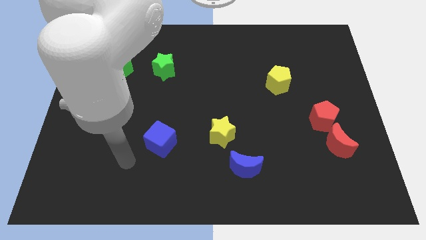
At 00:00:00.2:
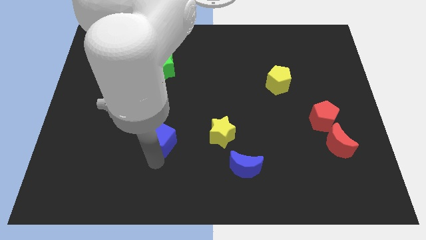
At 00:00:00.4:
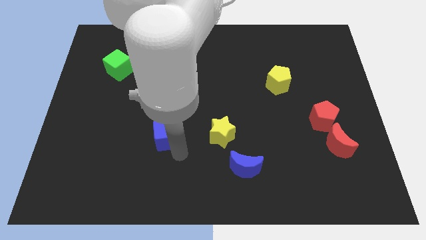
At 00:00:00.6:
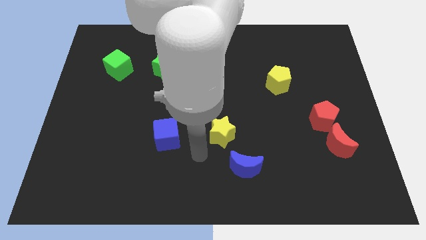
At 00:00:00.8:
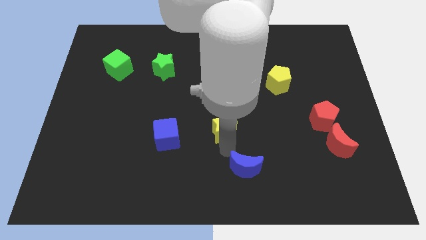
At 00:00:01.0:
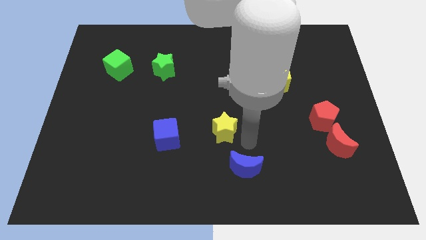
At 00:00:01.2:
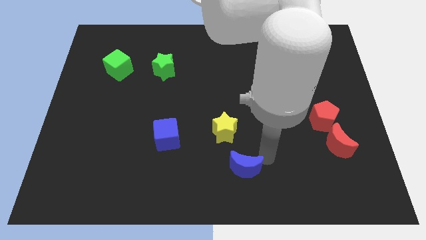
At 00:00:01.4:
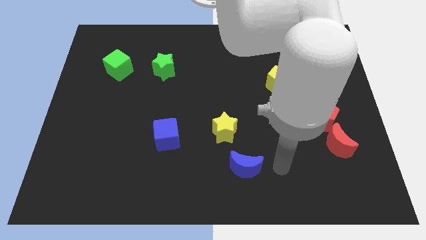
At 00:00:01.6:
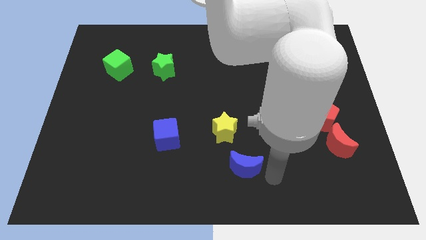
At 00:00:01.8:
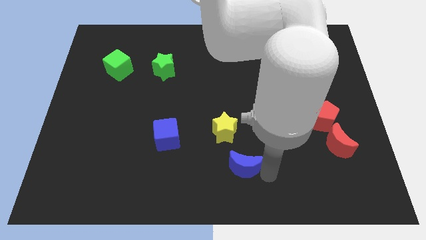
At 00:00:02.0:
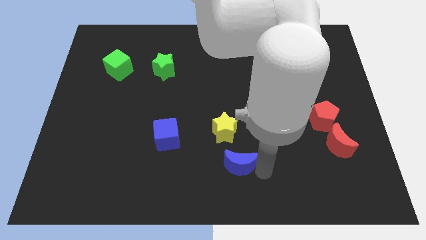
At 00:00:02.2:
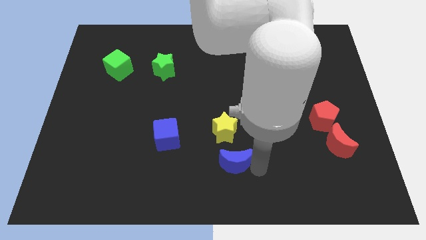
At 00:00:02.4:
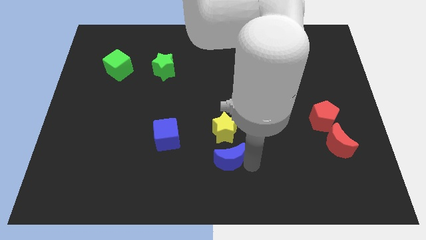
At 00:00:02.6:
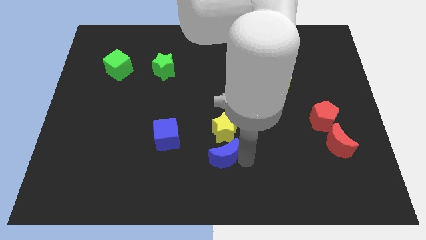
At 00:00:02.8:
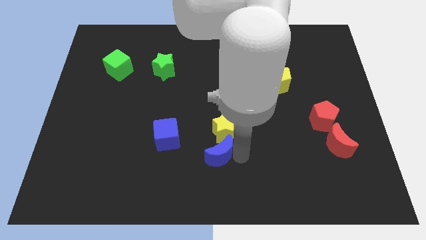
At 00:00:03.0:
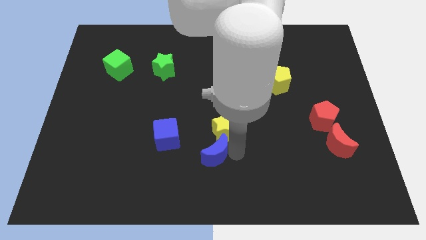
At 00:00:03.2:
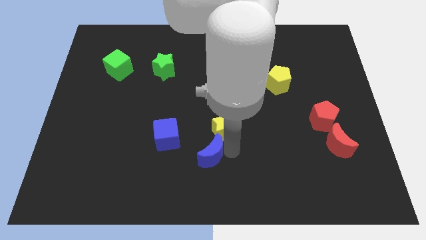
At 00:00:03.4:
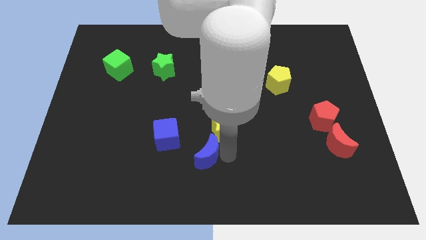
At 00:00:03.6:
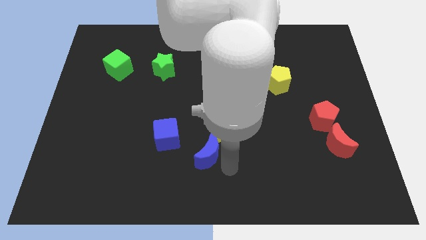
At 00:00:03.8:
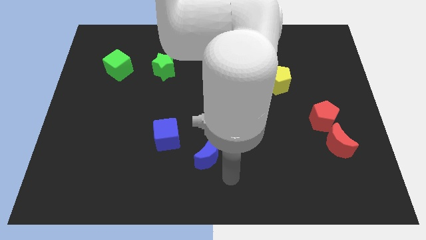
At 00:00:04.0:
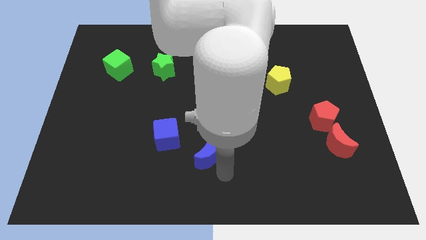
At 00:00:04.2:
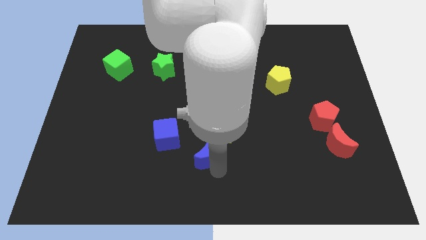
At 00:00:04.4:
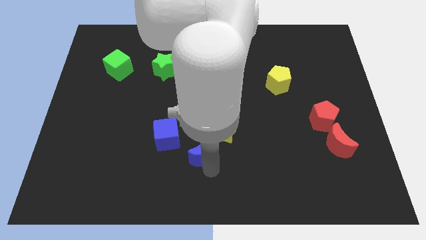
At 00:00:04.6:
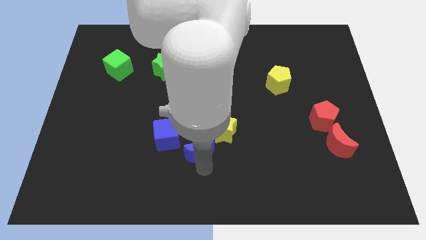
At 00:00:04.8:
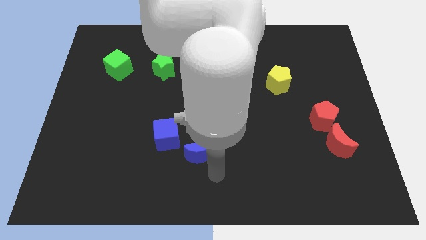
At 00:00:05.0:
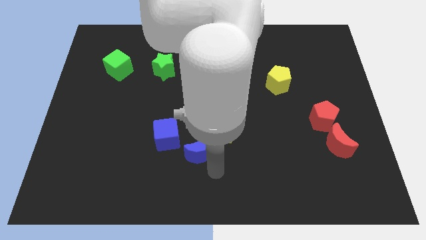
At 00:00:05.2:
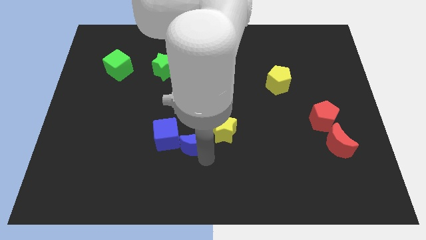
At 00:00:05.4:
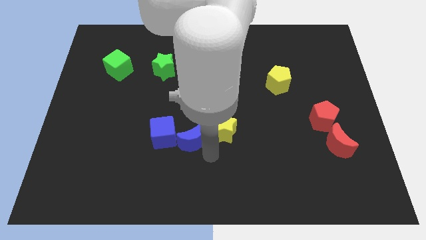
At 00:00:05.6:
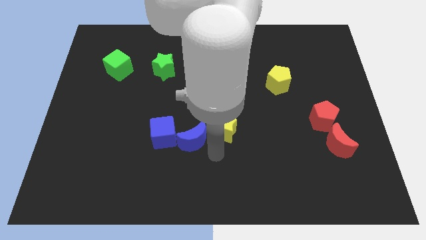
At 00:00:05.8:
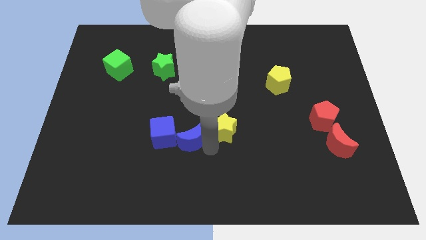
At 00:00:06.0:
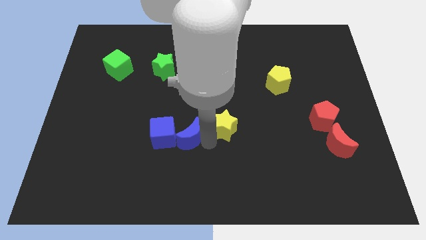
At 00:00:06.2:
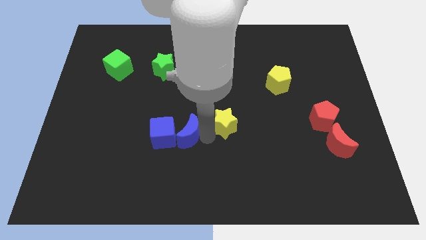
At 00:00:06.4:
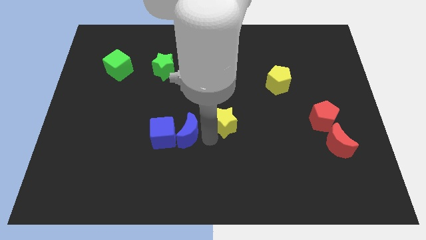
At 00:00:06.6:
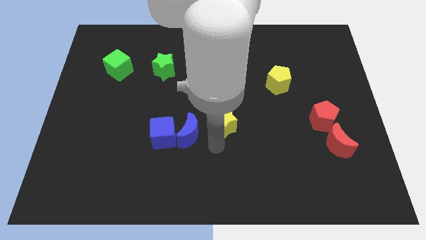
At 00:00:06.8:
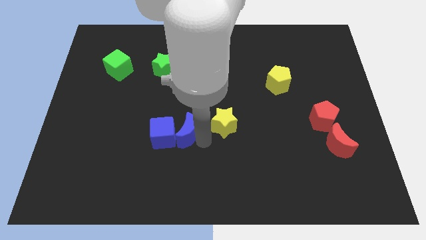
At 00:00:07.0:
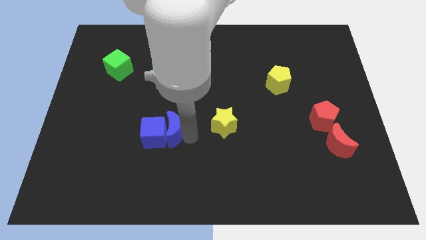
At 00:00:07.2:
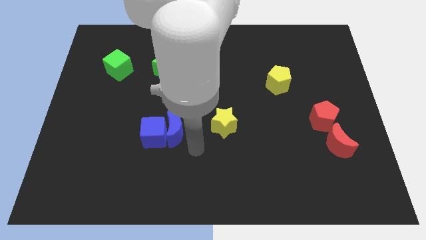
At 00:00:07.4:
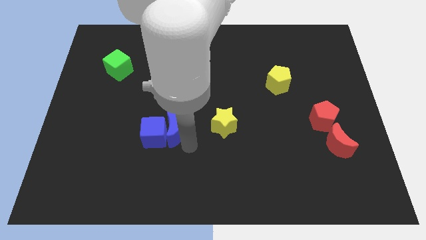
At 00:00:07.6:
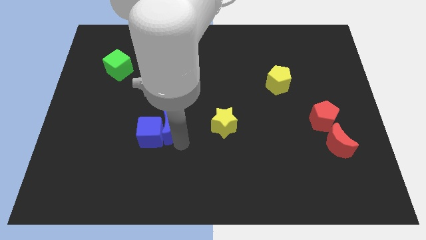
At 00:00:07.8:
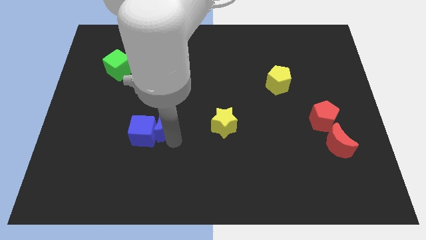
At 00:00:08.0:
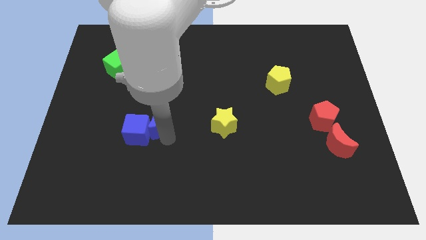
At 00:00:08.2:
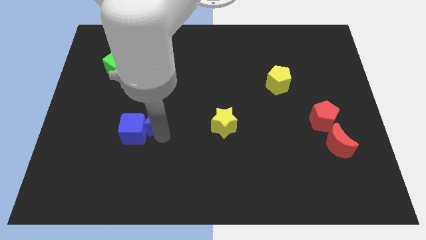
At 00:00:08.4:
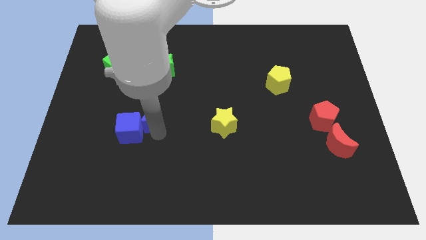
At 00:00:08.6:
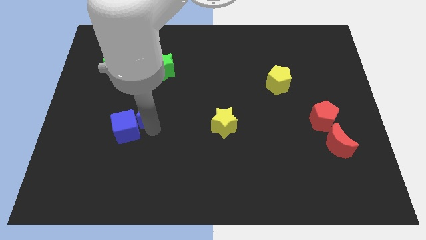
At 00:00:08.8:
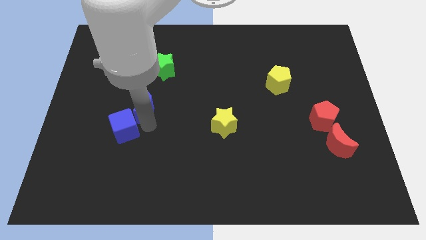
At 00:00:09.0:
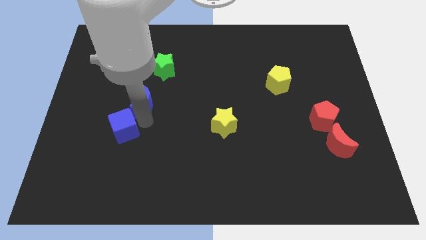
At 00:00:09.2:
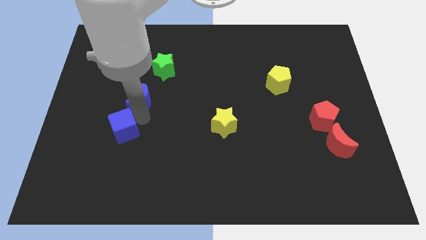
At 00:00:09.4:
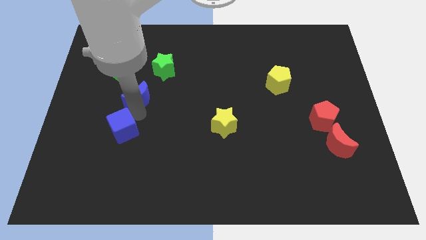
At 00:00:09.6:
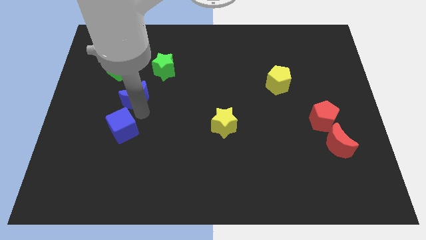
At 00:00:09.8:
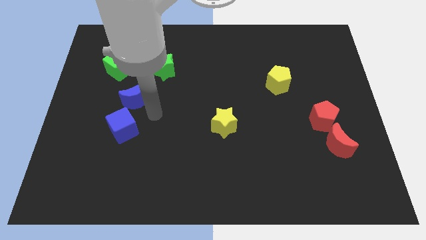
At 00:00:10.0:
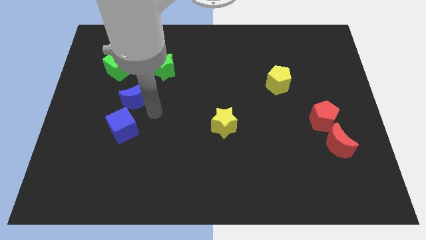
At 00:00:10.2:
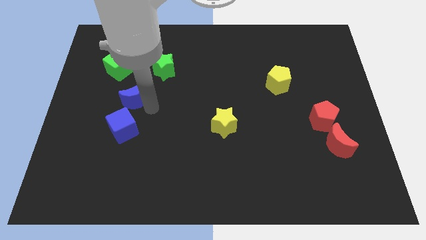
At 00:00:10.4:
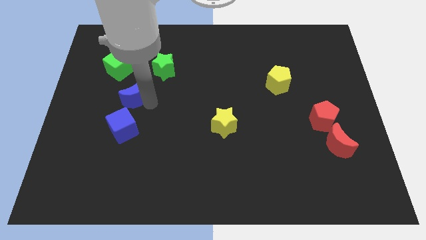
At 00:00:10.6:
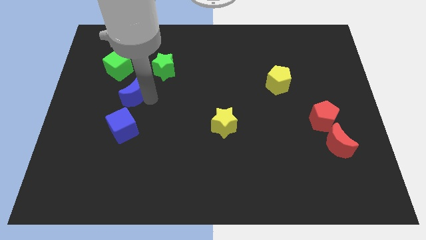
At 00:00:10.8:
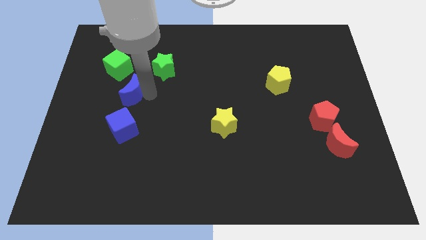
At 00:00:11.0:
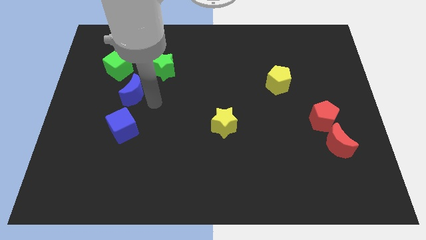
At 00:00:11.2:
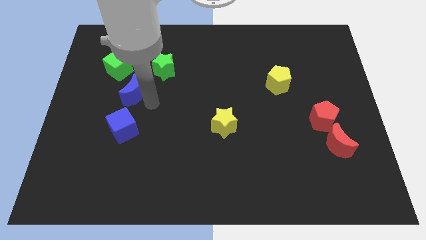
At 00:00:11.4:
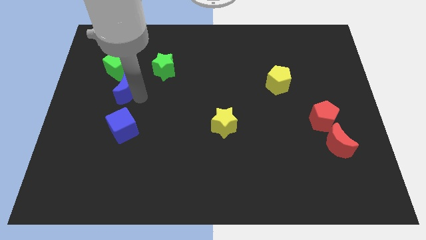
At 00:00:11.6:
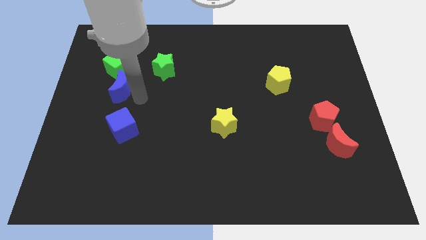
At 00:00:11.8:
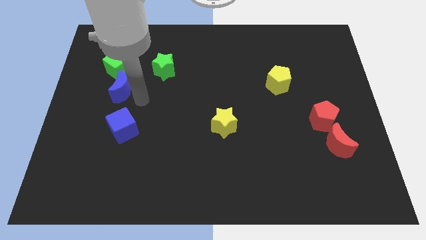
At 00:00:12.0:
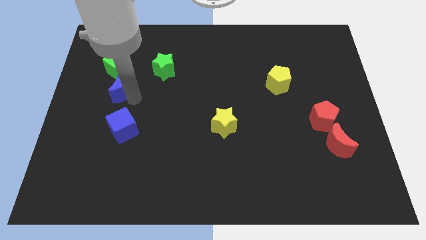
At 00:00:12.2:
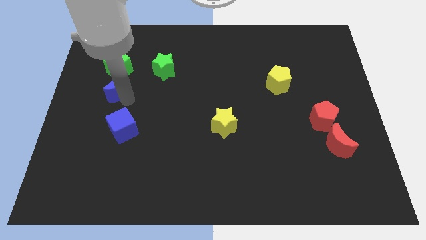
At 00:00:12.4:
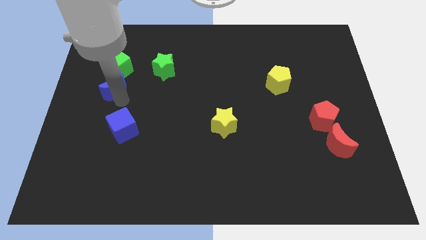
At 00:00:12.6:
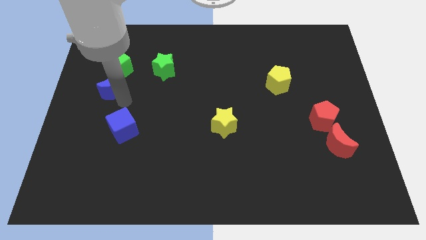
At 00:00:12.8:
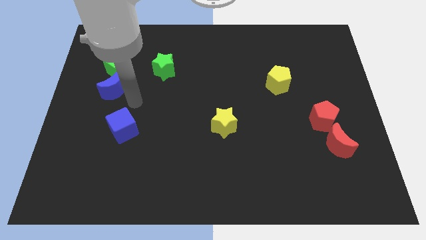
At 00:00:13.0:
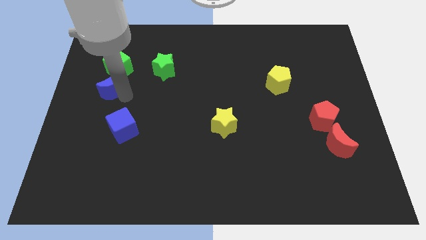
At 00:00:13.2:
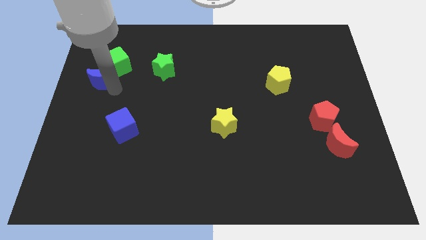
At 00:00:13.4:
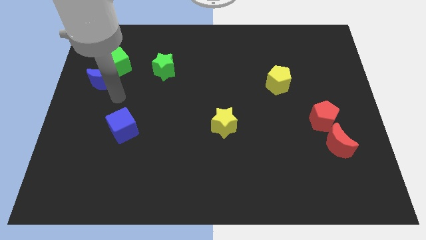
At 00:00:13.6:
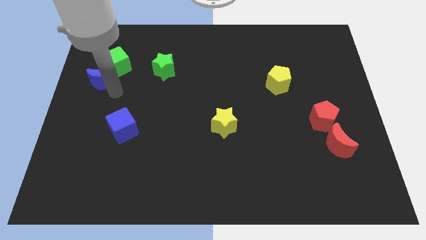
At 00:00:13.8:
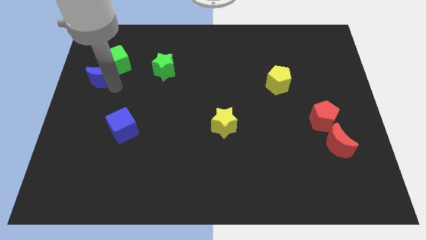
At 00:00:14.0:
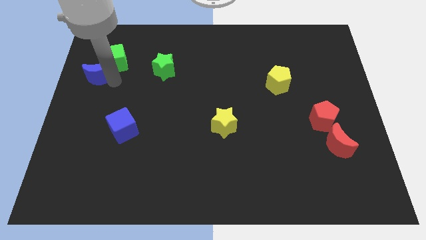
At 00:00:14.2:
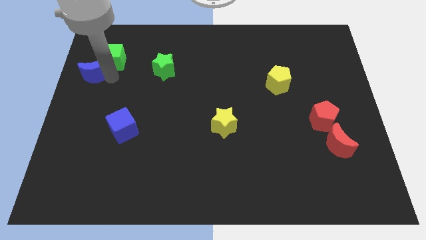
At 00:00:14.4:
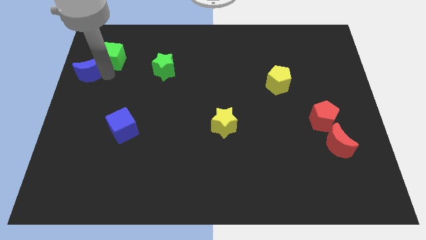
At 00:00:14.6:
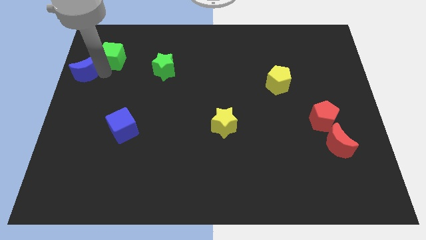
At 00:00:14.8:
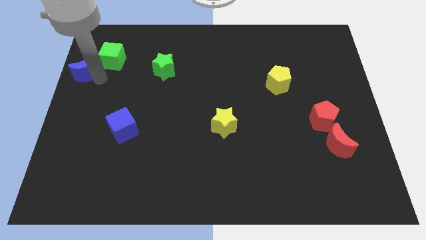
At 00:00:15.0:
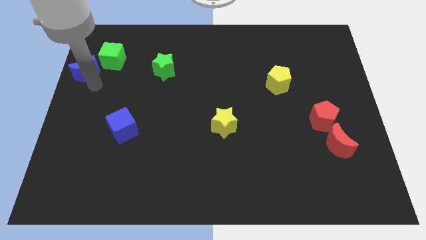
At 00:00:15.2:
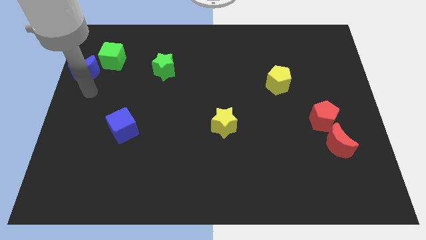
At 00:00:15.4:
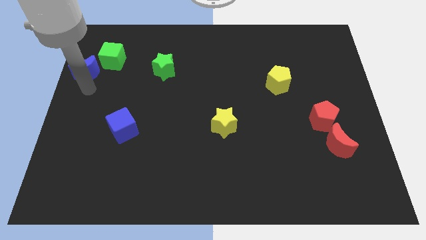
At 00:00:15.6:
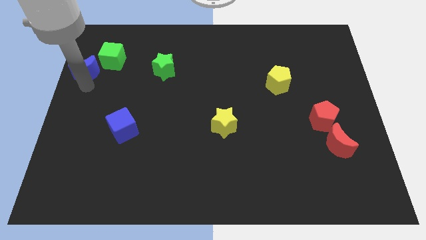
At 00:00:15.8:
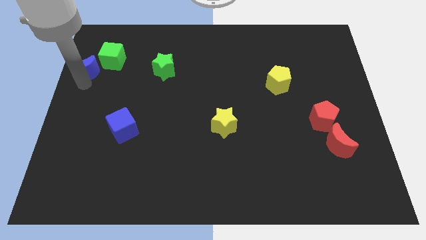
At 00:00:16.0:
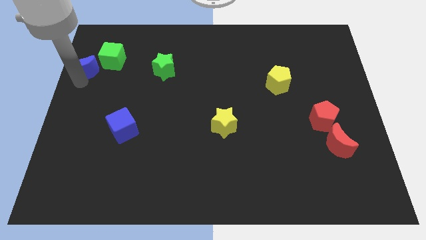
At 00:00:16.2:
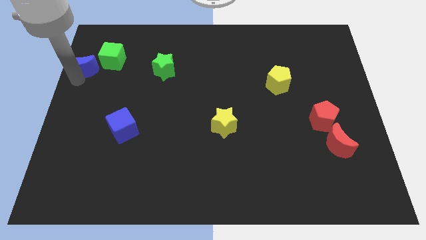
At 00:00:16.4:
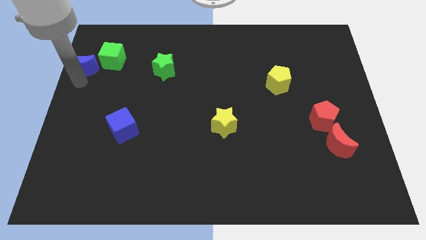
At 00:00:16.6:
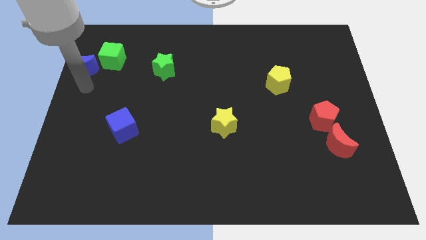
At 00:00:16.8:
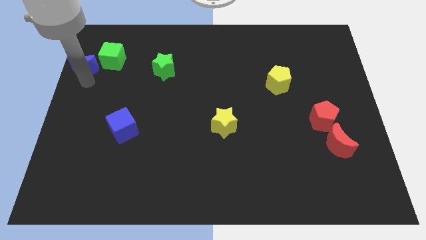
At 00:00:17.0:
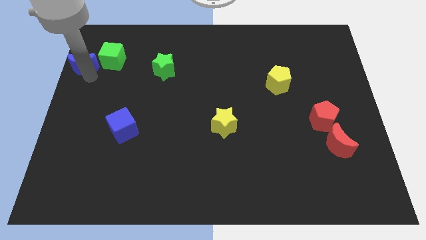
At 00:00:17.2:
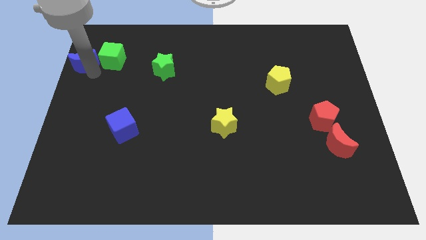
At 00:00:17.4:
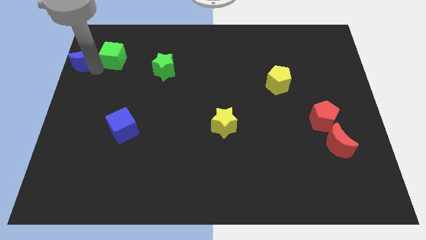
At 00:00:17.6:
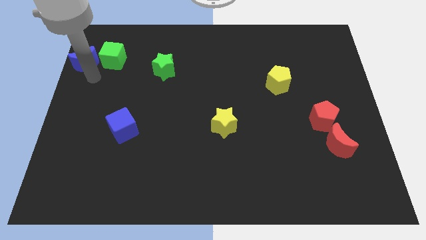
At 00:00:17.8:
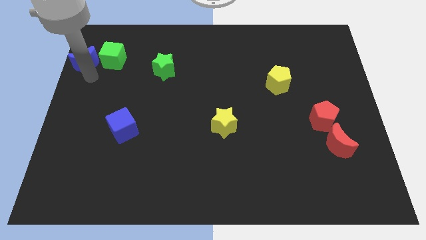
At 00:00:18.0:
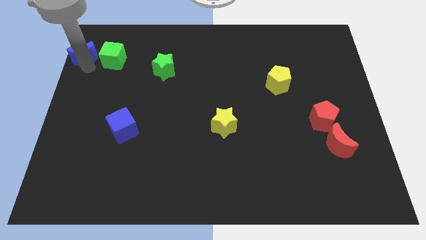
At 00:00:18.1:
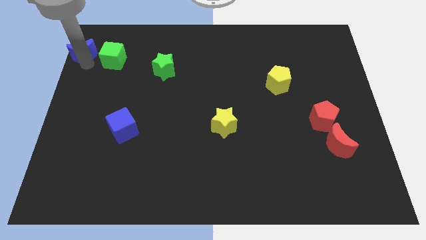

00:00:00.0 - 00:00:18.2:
put the blue moon to the upper left corner
